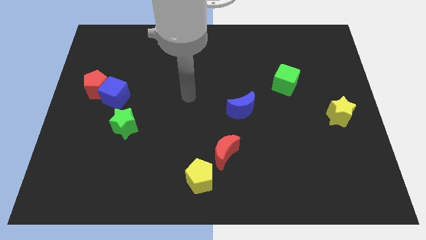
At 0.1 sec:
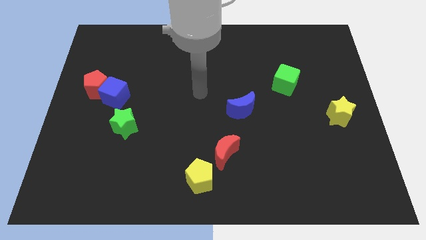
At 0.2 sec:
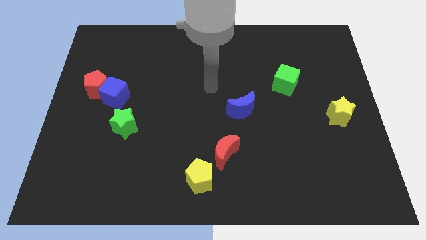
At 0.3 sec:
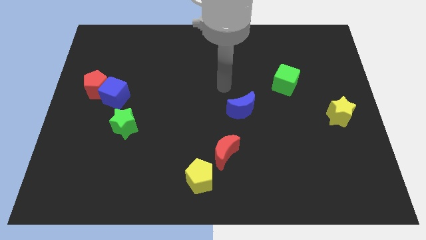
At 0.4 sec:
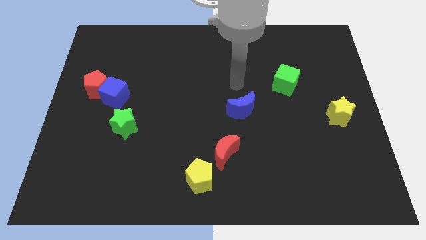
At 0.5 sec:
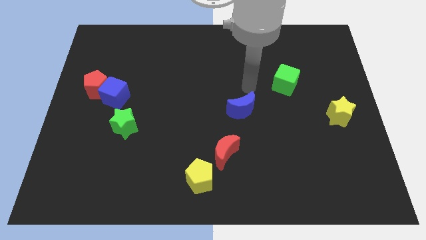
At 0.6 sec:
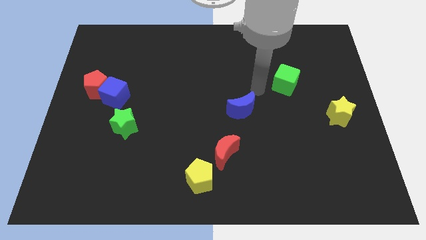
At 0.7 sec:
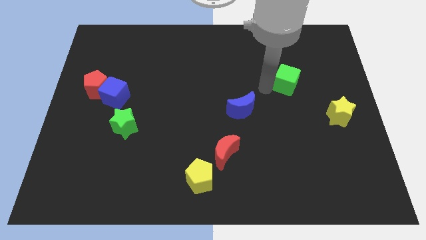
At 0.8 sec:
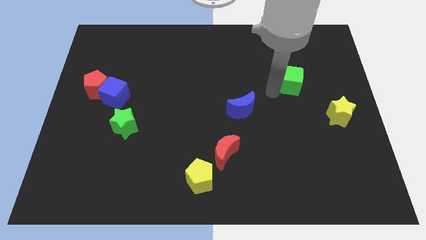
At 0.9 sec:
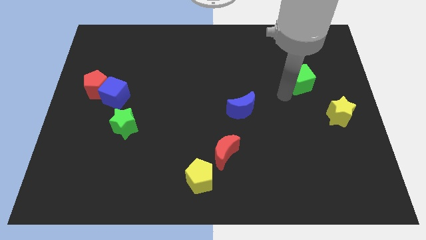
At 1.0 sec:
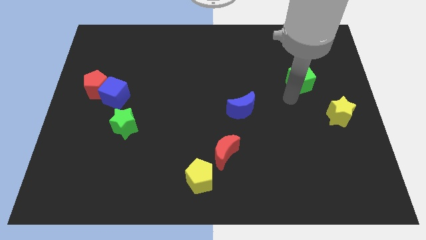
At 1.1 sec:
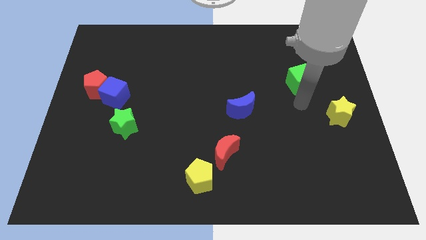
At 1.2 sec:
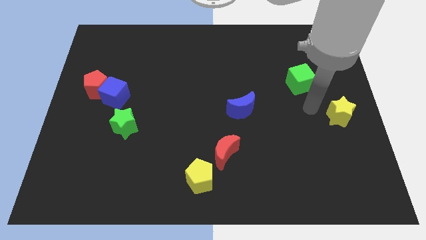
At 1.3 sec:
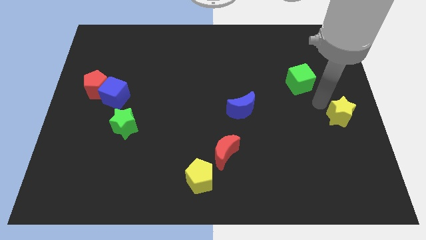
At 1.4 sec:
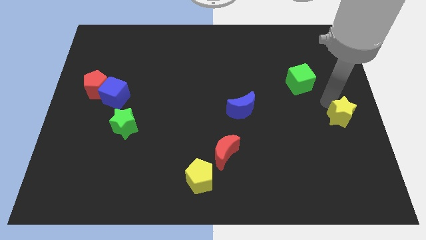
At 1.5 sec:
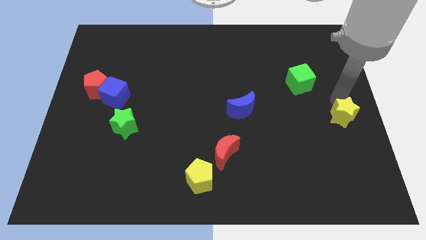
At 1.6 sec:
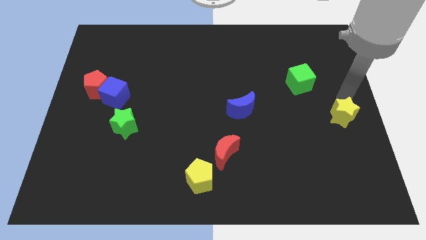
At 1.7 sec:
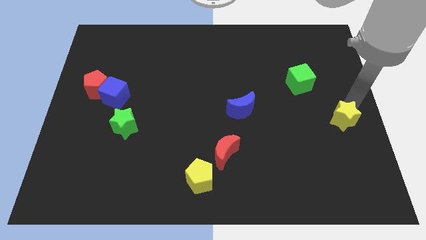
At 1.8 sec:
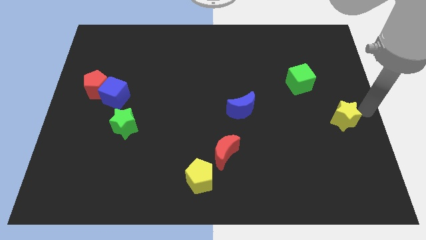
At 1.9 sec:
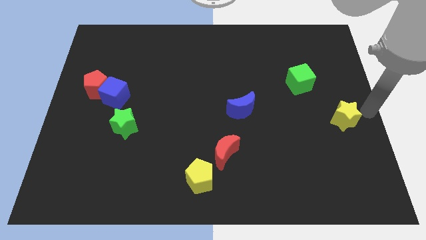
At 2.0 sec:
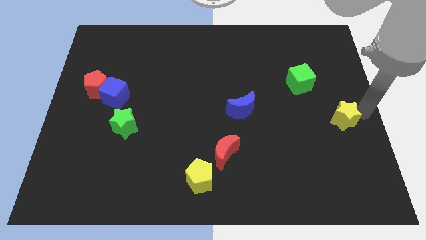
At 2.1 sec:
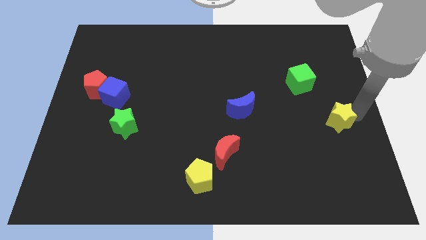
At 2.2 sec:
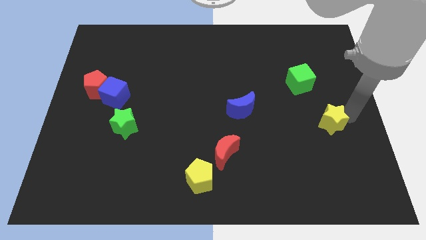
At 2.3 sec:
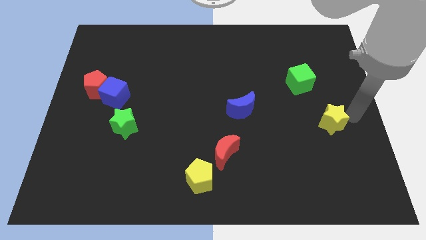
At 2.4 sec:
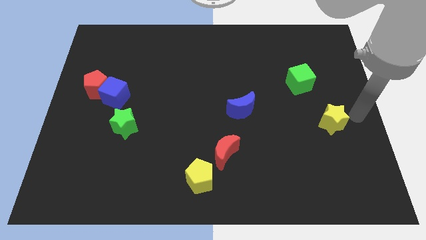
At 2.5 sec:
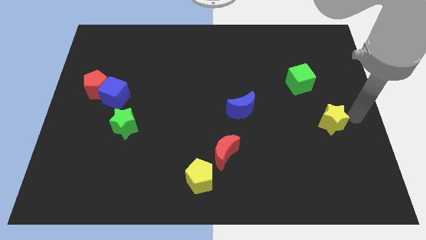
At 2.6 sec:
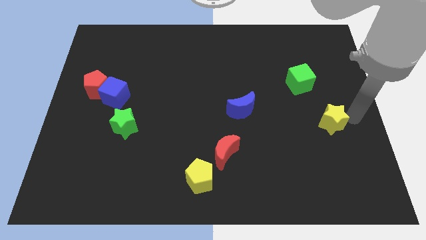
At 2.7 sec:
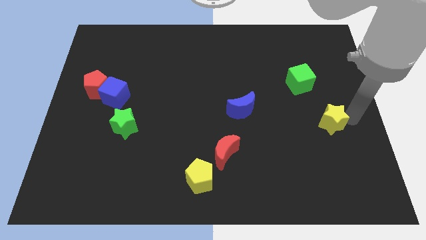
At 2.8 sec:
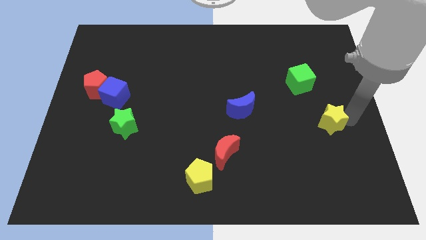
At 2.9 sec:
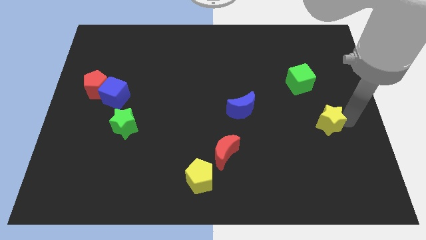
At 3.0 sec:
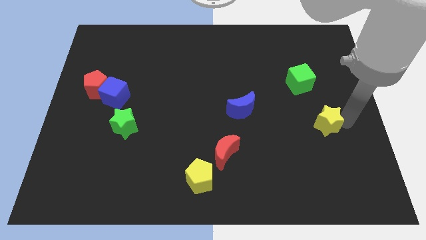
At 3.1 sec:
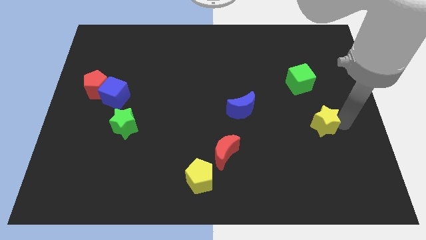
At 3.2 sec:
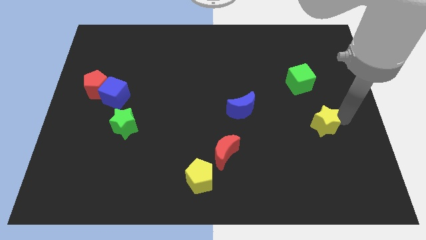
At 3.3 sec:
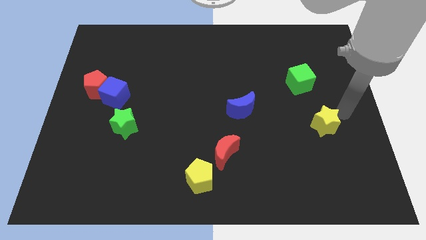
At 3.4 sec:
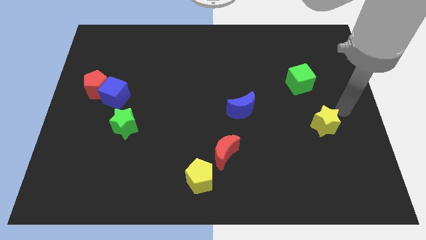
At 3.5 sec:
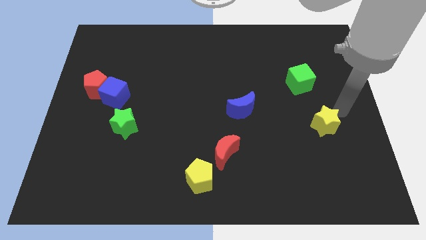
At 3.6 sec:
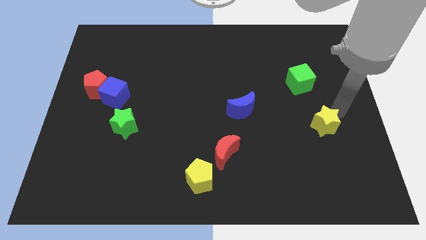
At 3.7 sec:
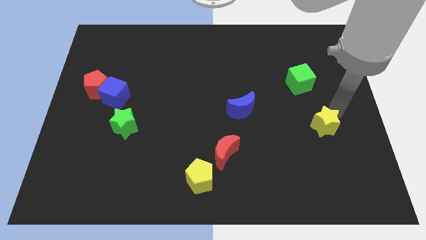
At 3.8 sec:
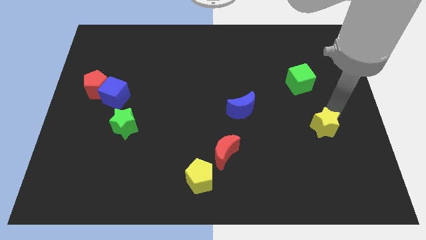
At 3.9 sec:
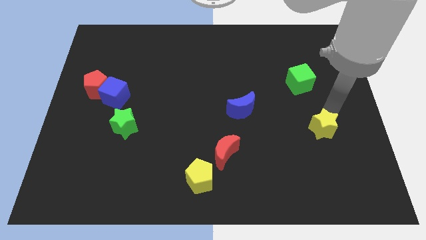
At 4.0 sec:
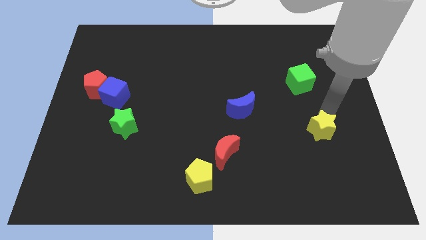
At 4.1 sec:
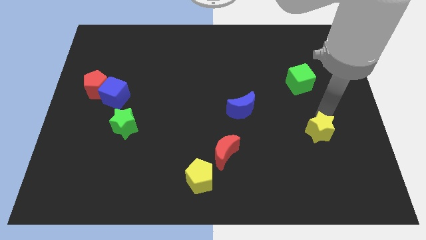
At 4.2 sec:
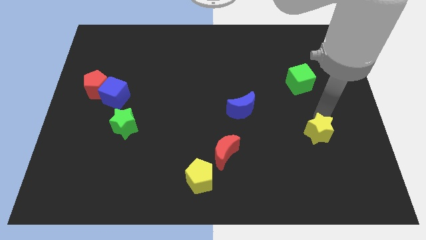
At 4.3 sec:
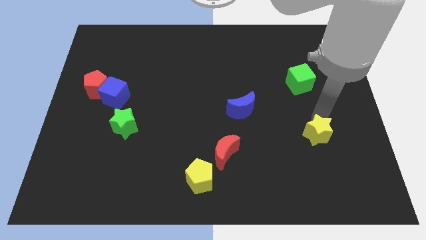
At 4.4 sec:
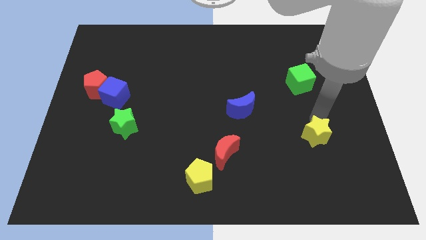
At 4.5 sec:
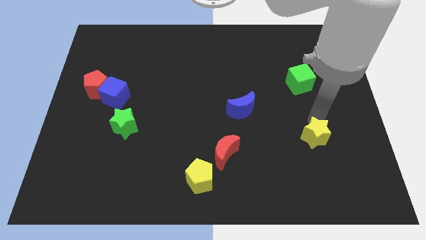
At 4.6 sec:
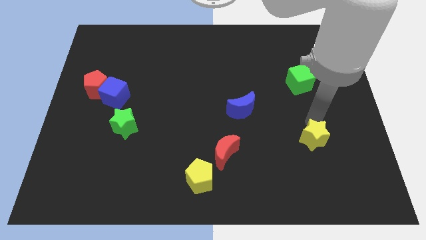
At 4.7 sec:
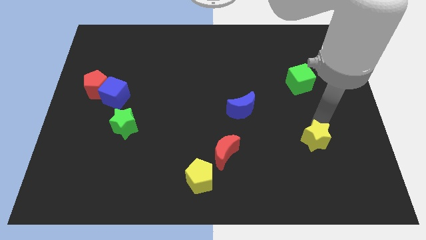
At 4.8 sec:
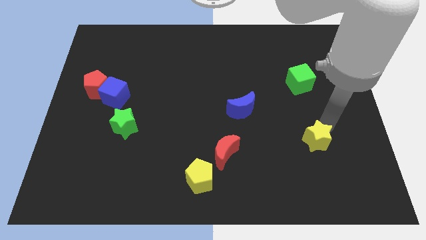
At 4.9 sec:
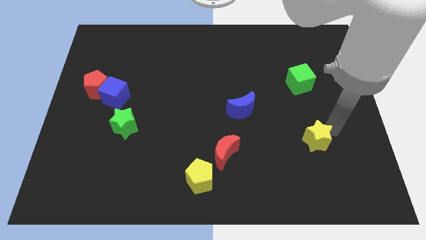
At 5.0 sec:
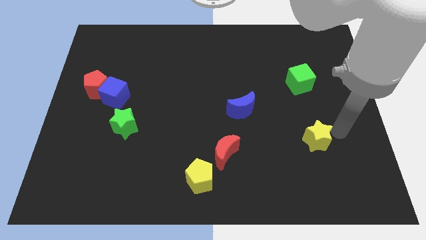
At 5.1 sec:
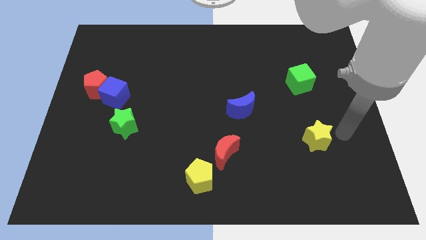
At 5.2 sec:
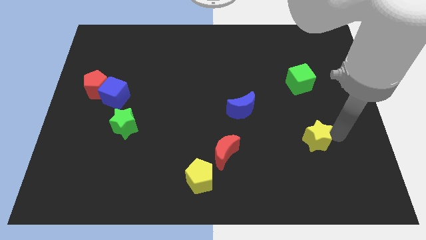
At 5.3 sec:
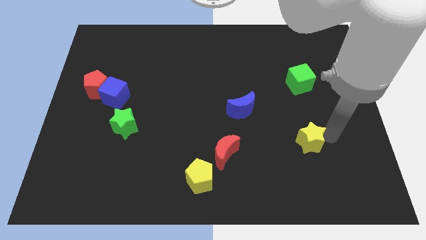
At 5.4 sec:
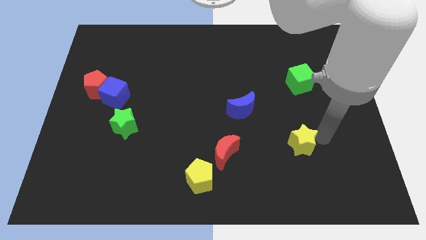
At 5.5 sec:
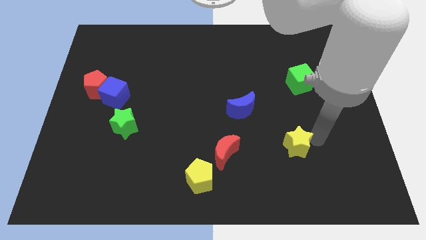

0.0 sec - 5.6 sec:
move the yellow star to the right of the red moon

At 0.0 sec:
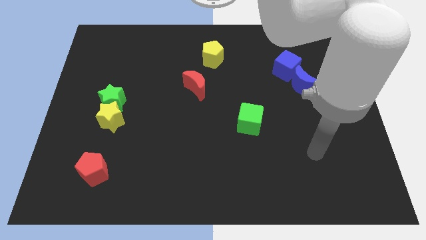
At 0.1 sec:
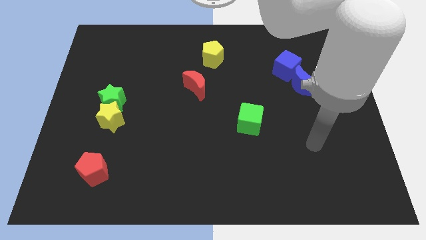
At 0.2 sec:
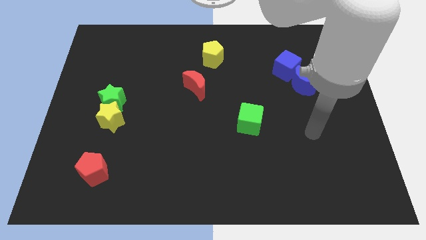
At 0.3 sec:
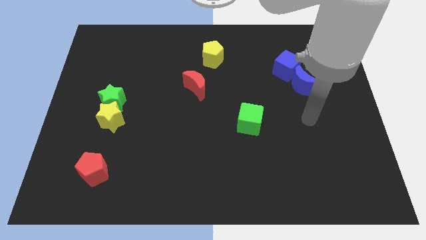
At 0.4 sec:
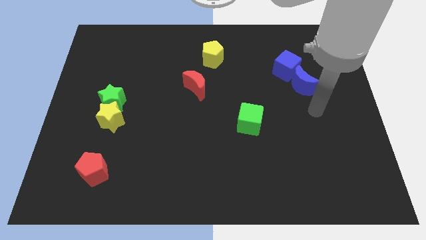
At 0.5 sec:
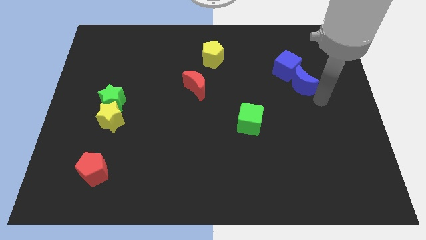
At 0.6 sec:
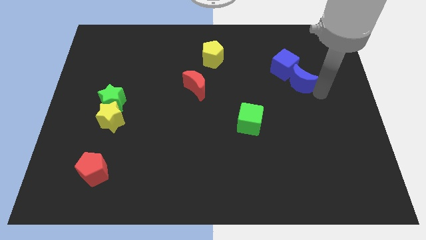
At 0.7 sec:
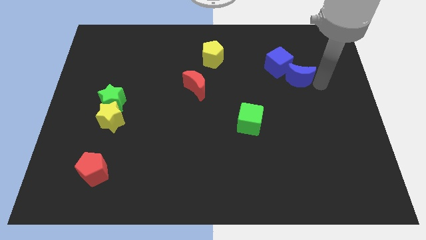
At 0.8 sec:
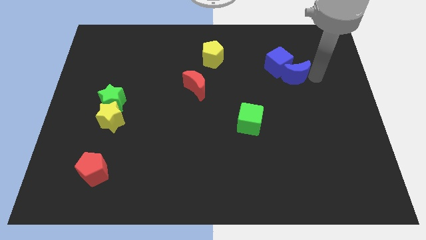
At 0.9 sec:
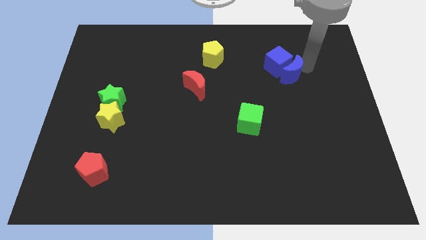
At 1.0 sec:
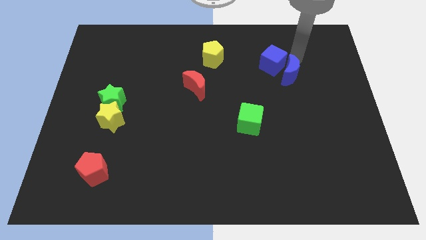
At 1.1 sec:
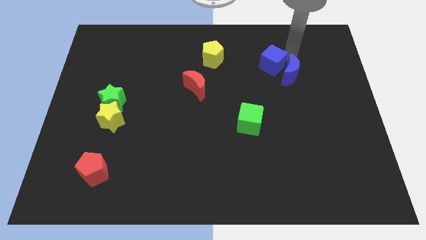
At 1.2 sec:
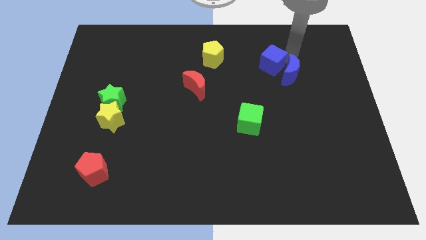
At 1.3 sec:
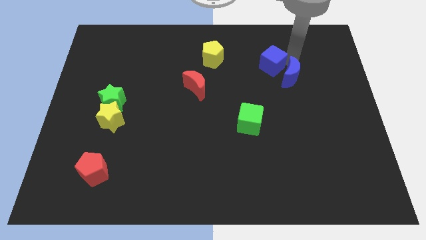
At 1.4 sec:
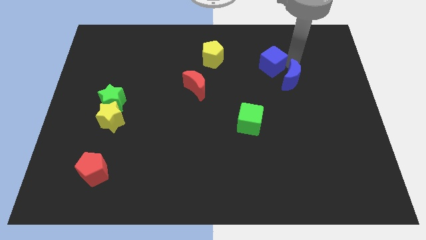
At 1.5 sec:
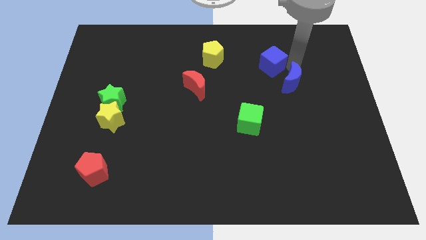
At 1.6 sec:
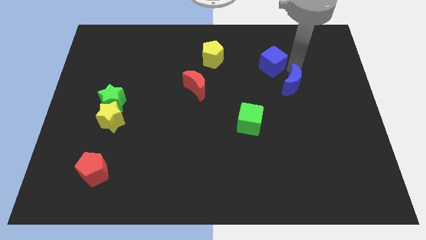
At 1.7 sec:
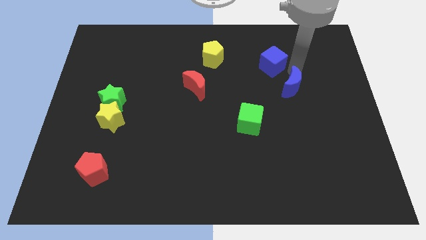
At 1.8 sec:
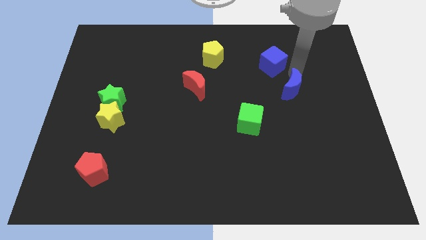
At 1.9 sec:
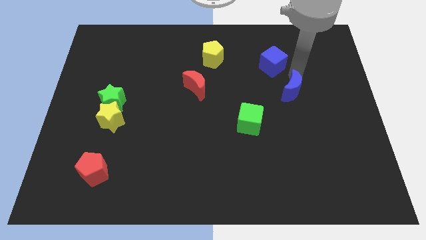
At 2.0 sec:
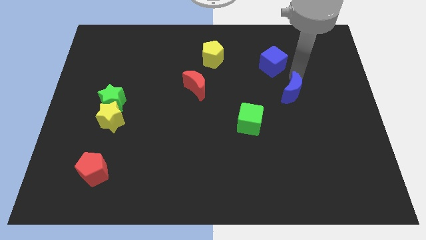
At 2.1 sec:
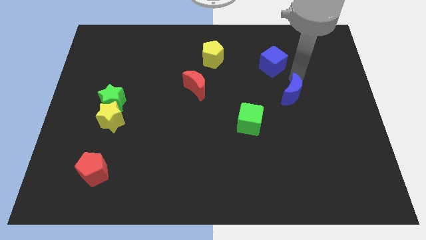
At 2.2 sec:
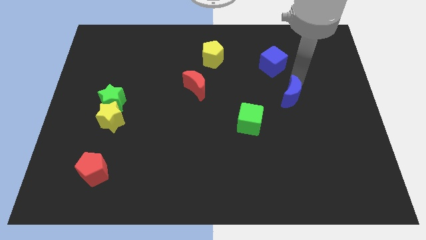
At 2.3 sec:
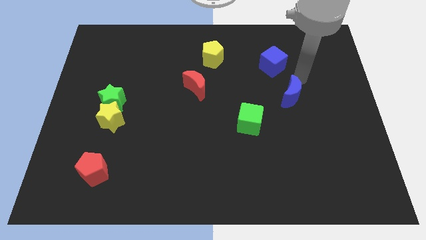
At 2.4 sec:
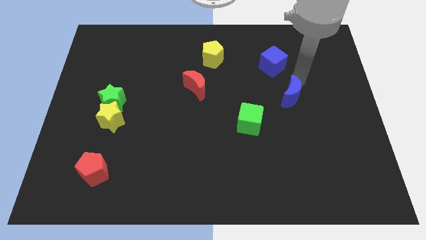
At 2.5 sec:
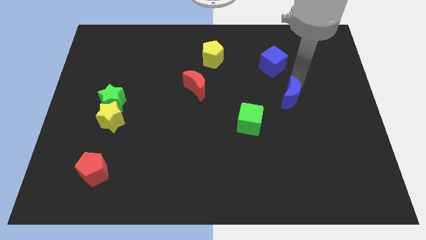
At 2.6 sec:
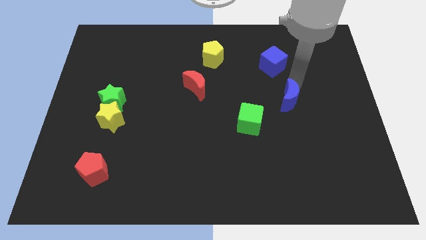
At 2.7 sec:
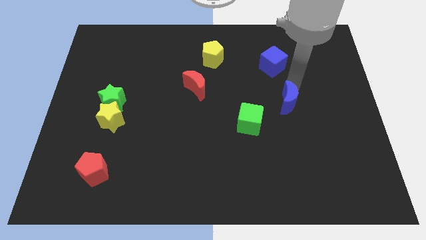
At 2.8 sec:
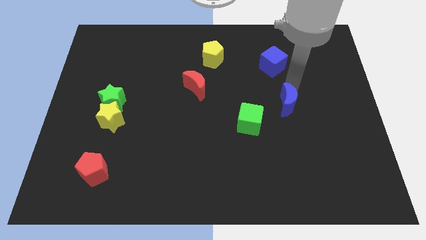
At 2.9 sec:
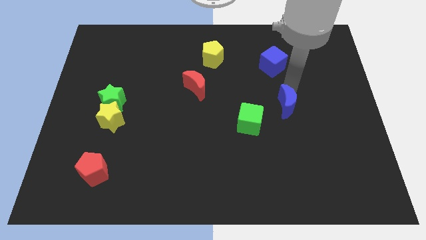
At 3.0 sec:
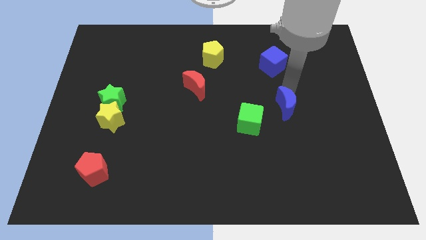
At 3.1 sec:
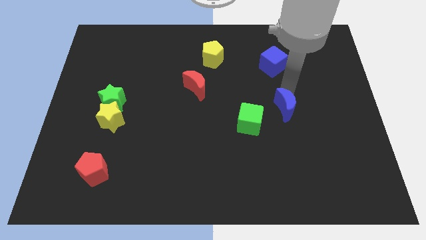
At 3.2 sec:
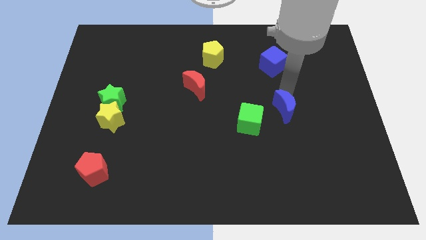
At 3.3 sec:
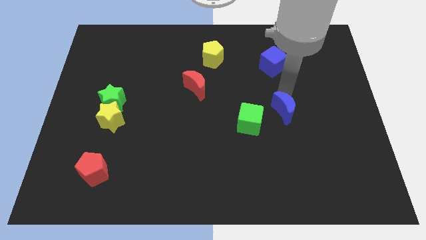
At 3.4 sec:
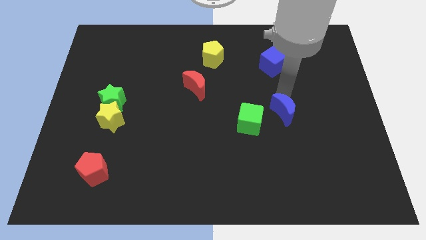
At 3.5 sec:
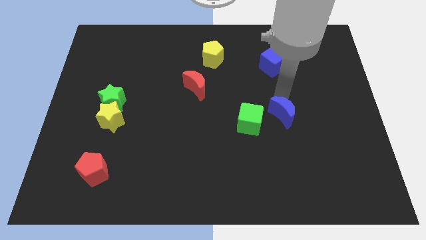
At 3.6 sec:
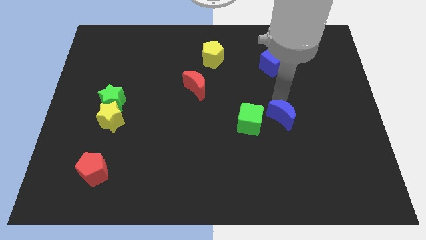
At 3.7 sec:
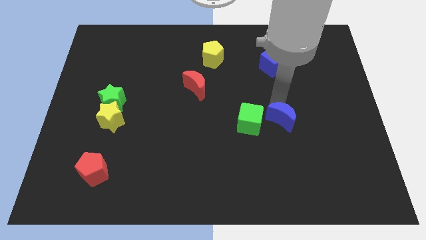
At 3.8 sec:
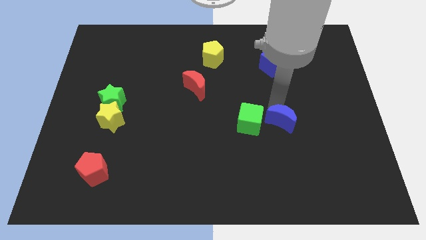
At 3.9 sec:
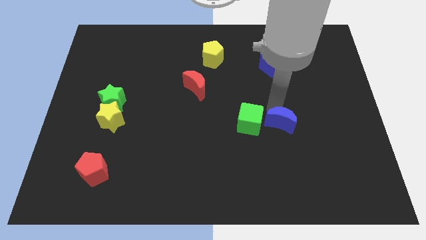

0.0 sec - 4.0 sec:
slide the blue moon to the bottom right side of the green cube
